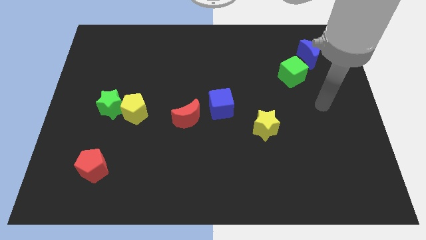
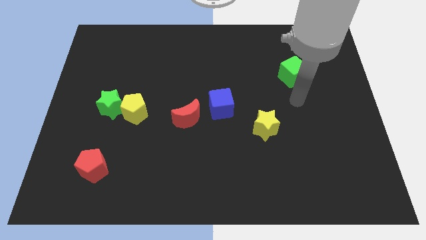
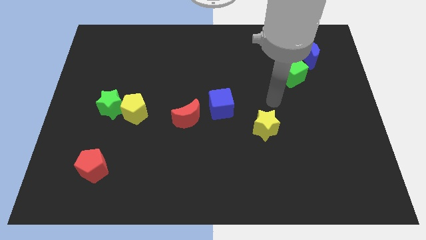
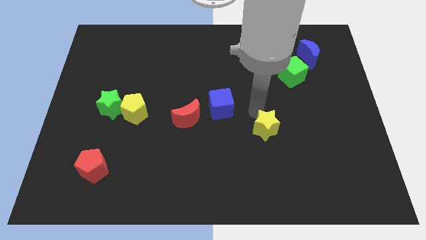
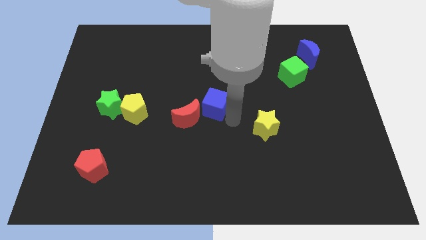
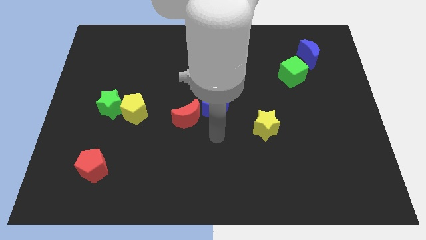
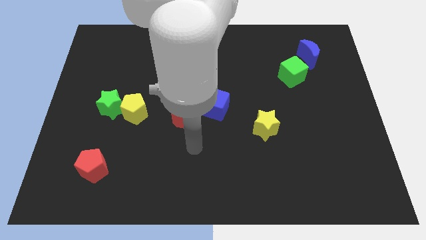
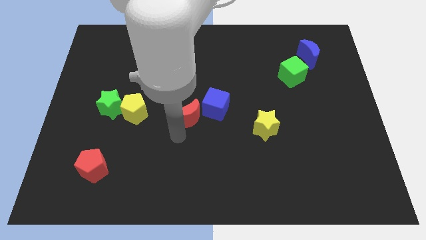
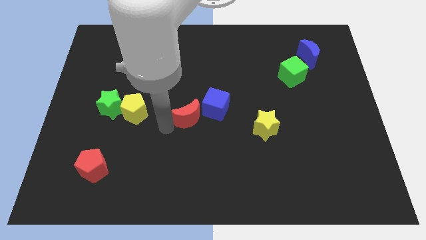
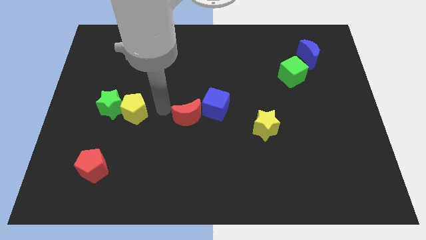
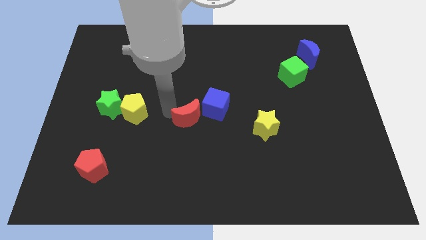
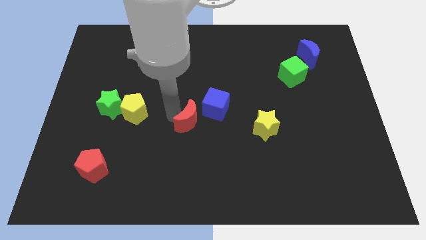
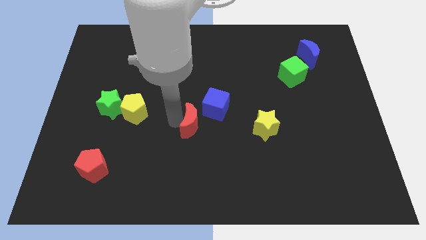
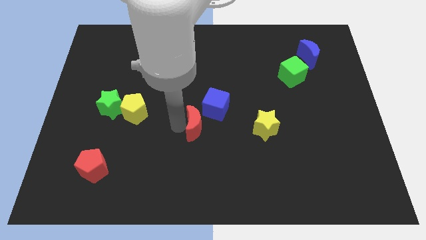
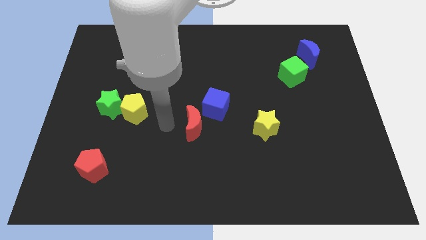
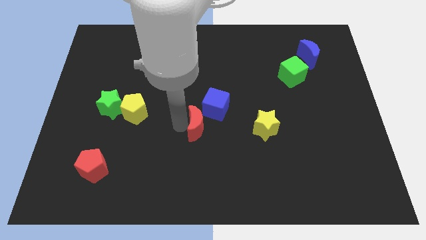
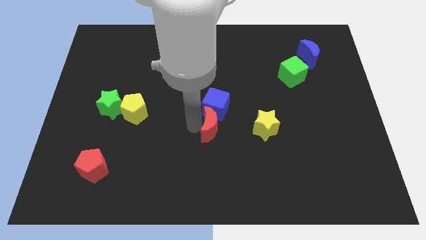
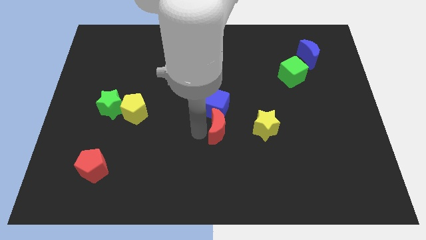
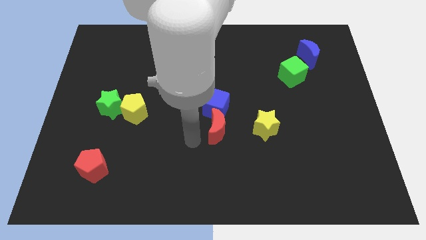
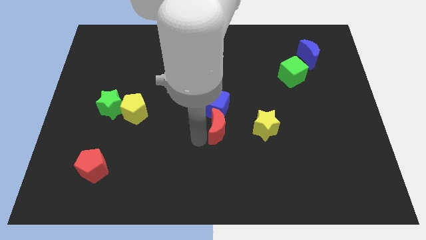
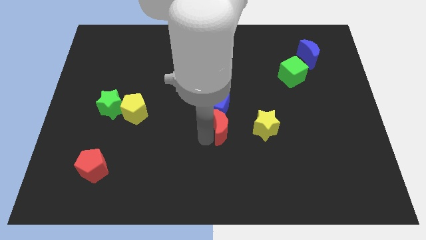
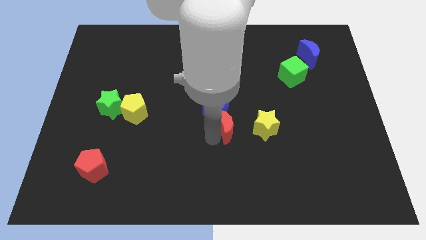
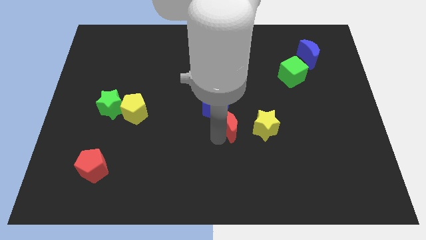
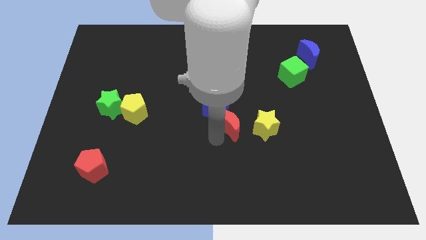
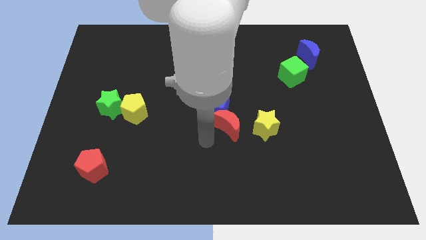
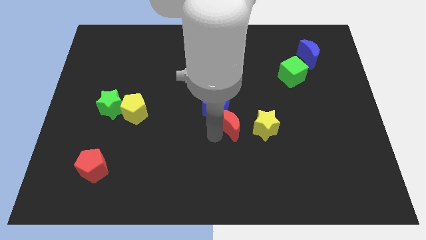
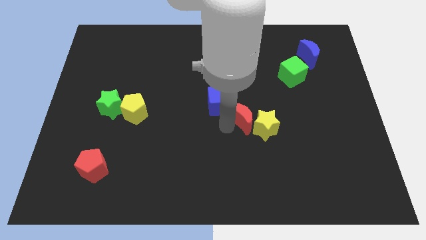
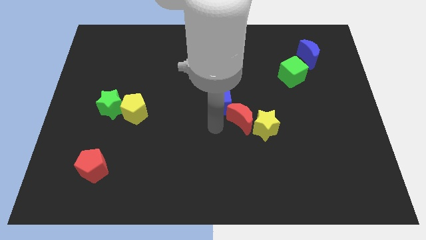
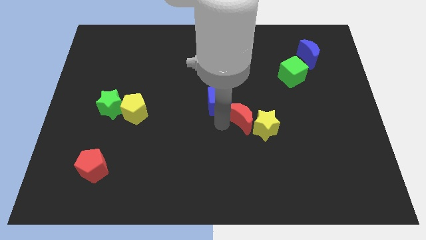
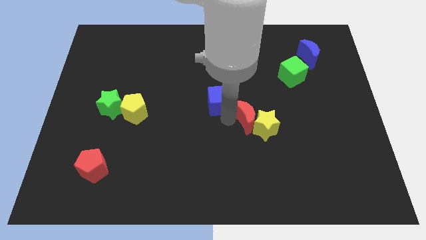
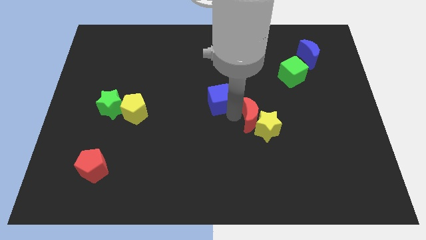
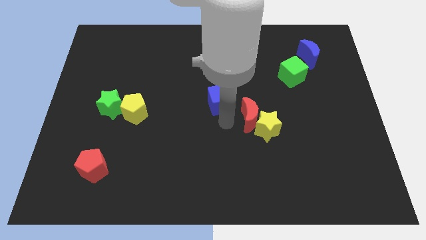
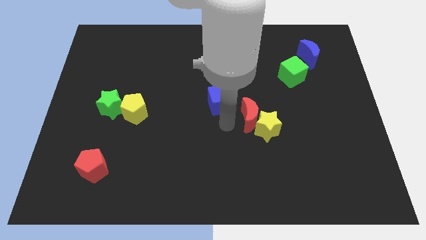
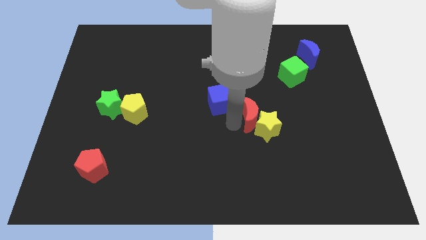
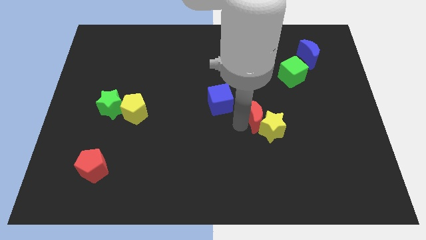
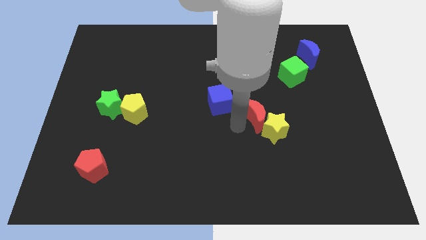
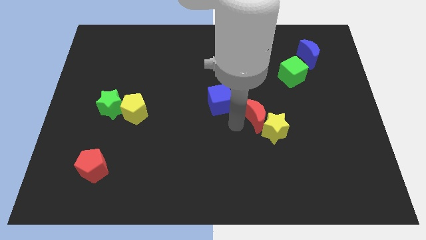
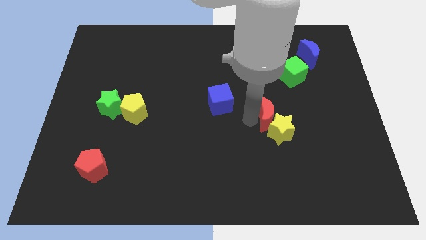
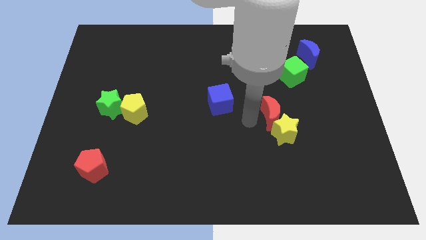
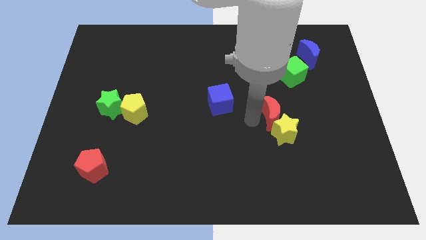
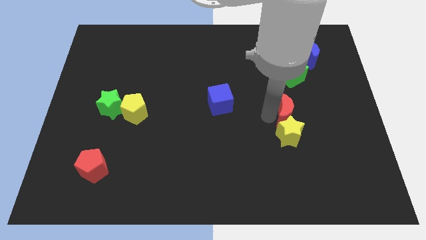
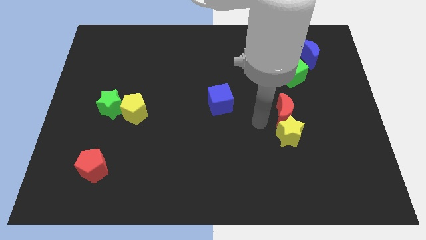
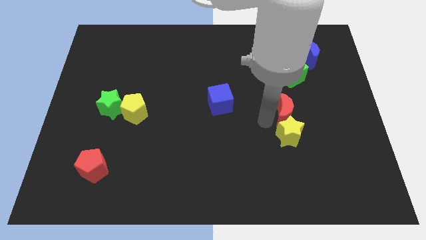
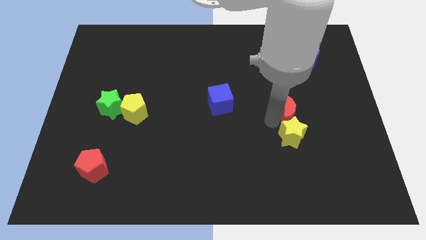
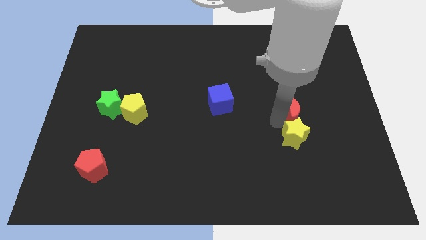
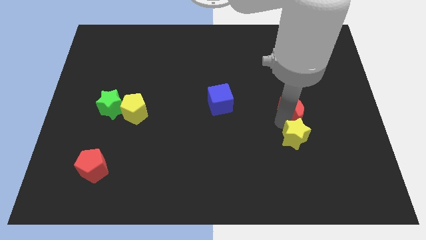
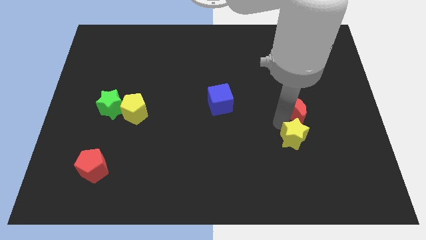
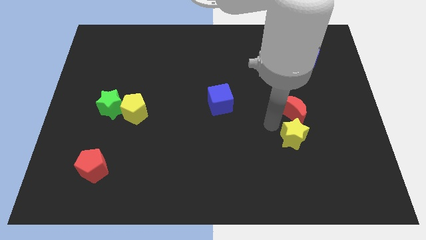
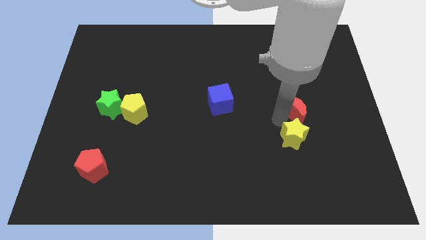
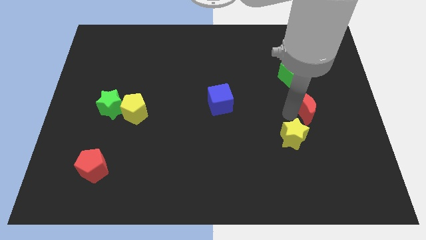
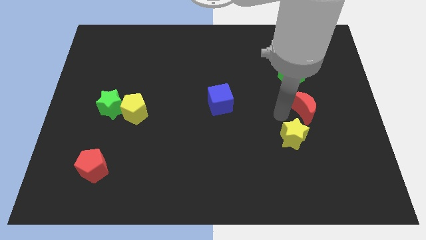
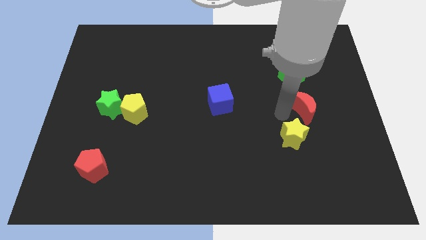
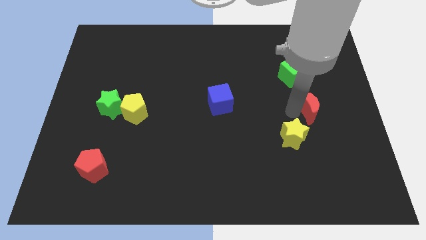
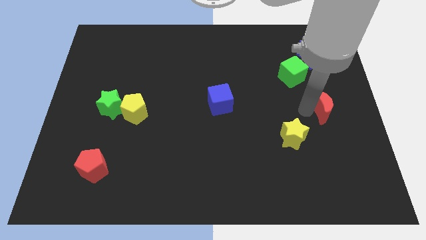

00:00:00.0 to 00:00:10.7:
move the red moon to the right side of the board

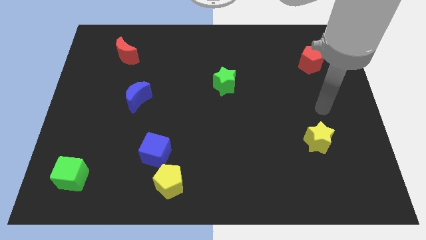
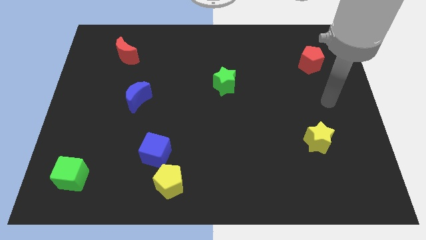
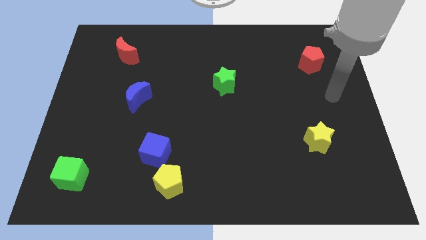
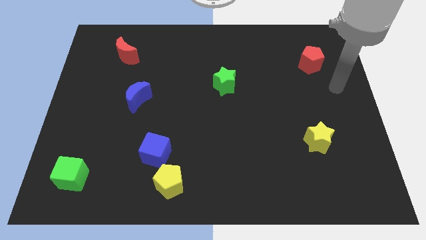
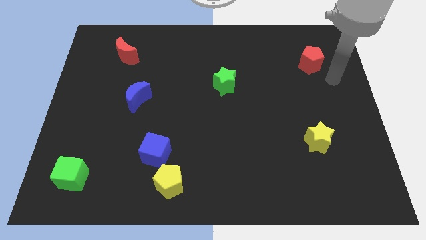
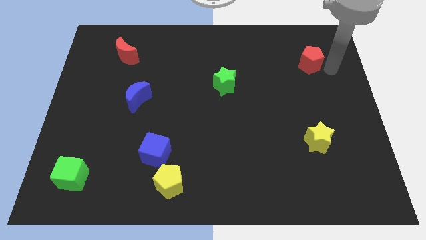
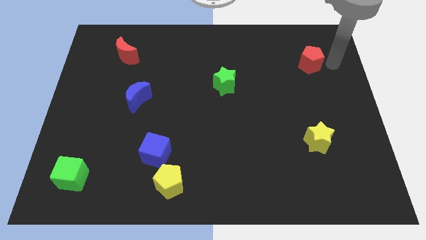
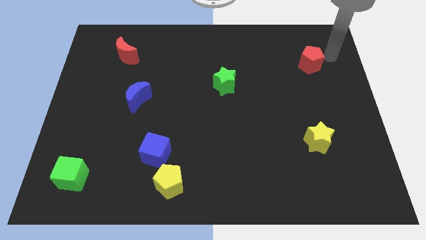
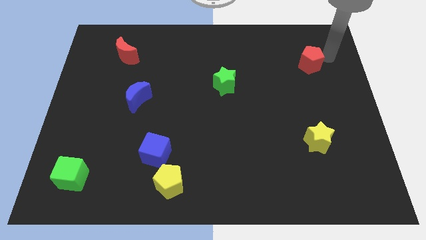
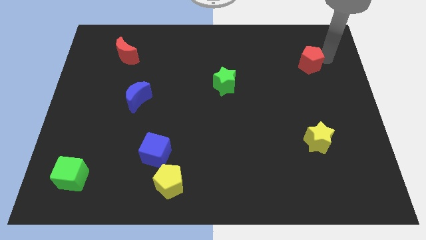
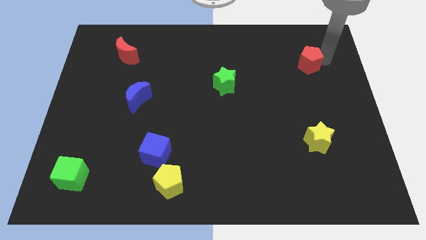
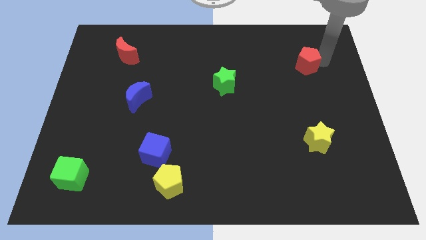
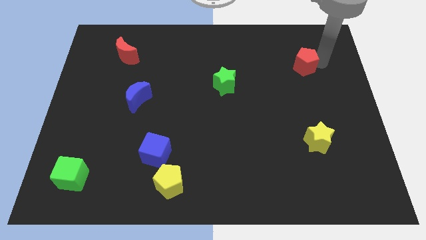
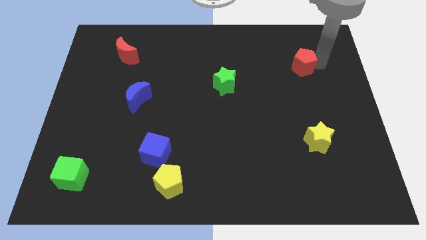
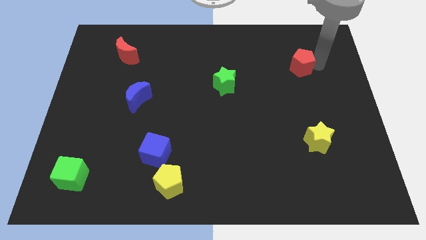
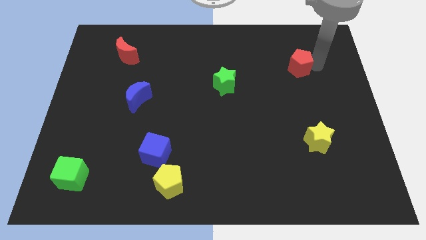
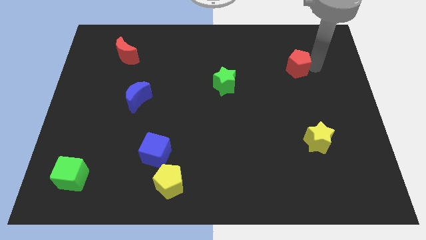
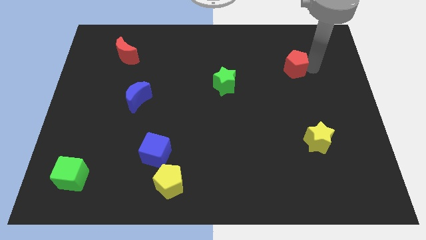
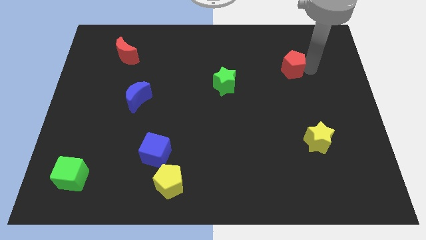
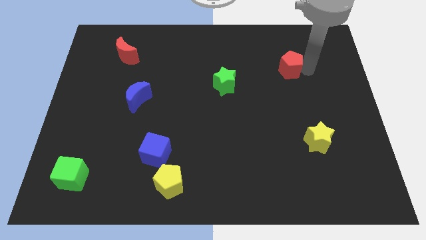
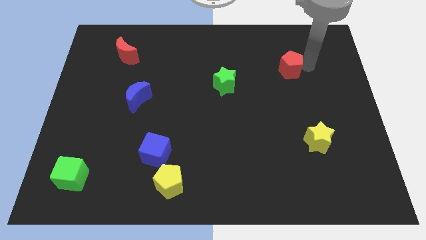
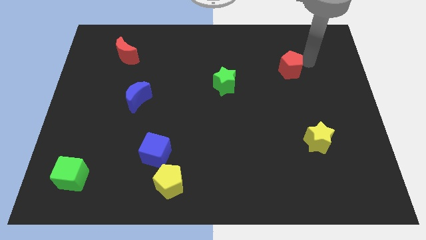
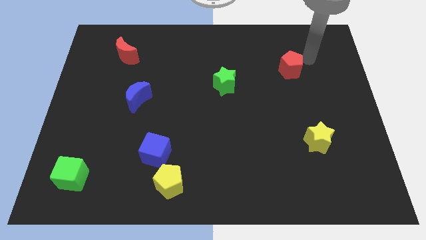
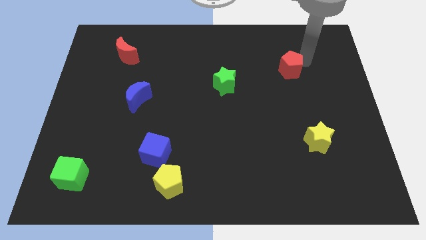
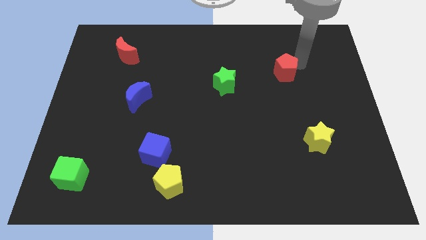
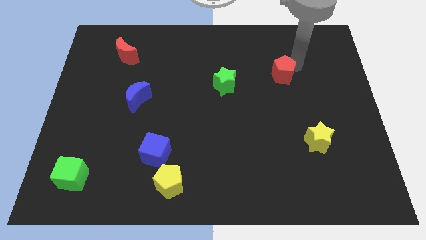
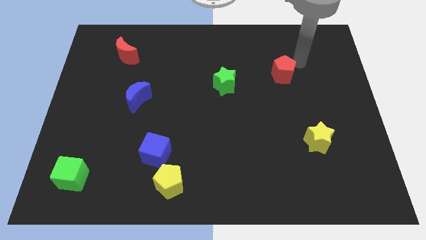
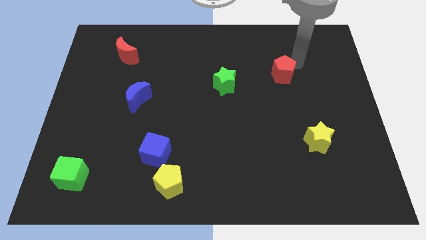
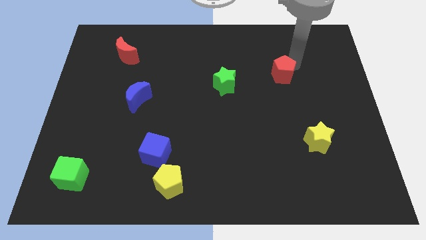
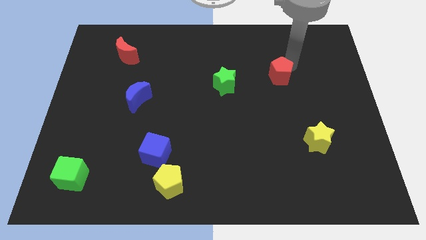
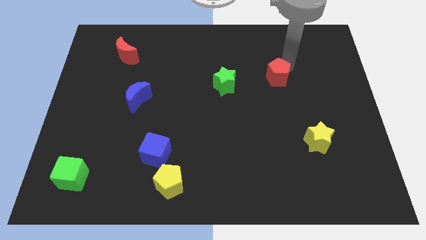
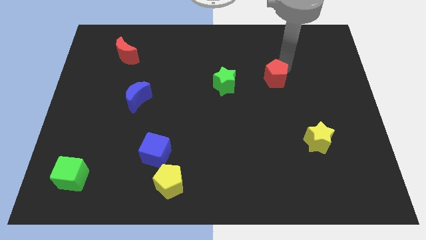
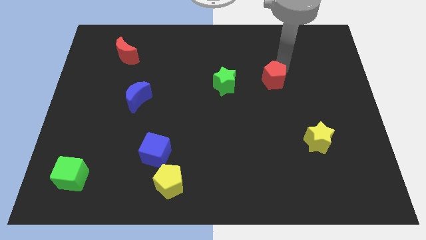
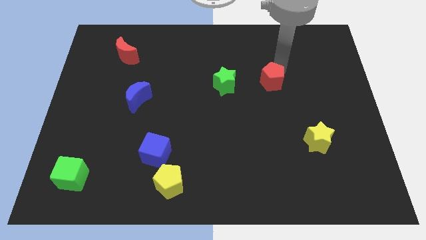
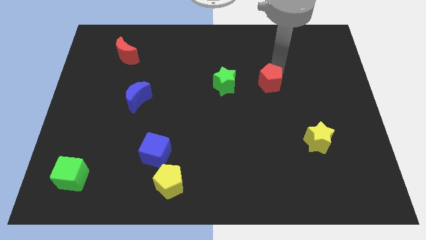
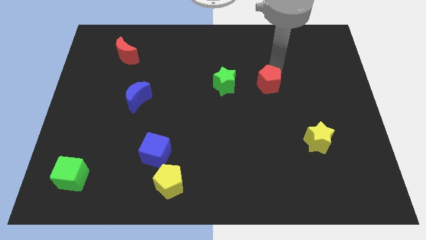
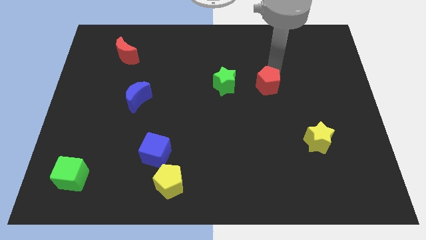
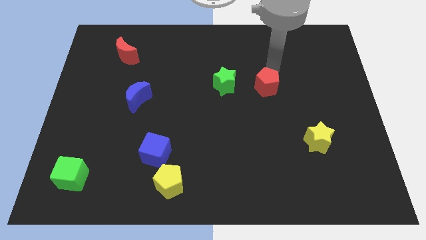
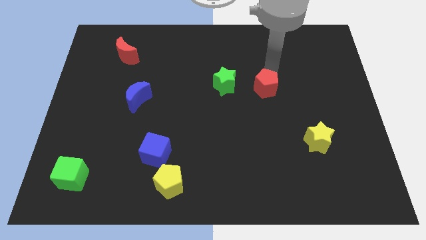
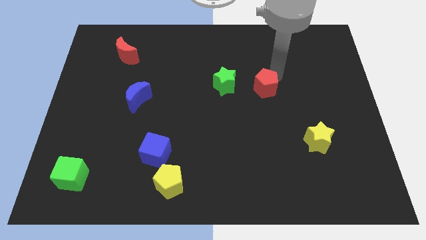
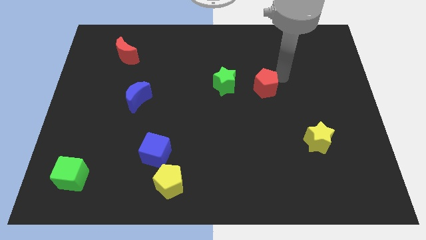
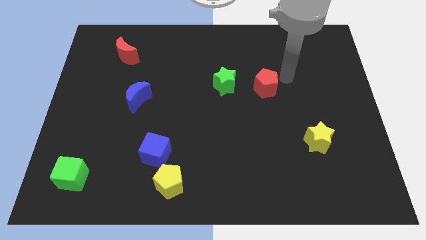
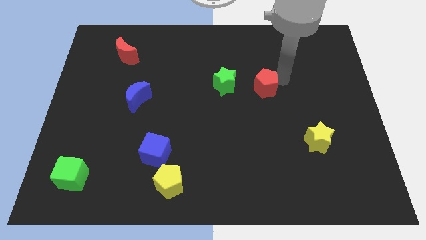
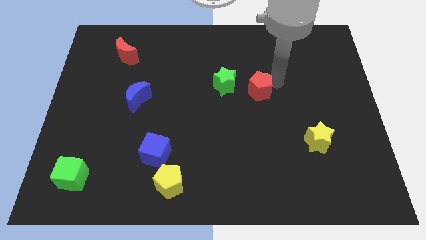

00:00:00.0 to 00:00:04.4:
move the red pentagon to the middle of the board
